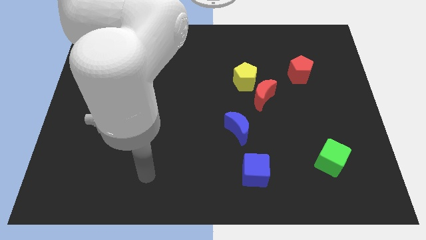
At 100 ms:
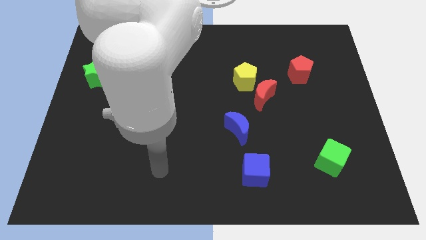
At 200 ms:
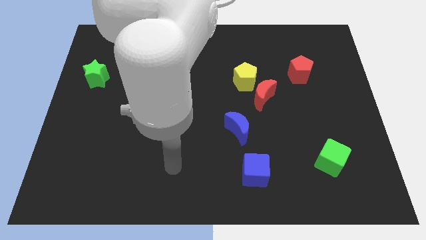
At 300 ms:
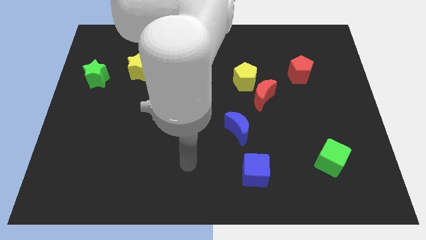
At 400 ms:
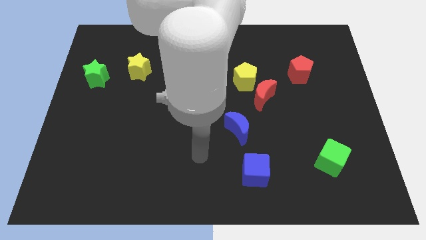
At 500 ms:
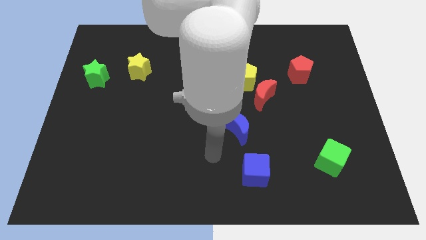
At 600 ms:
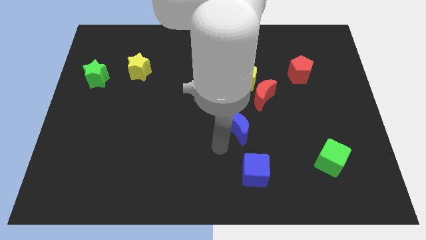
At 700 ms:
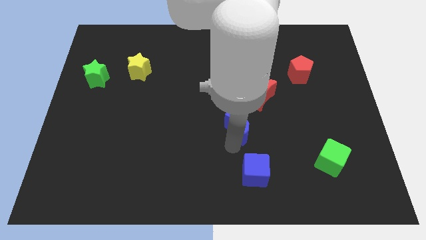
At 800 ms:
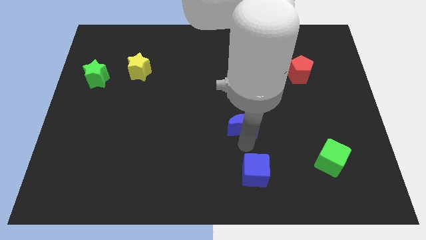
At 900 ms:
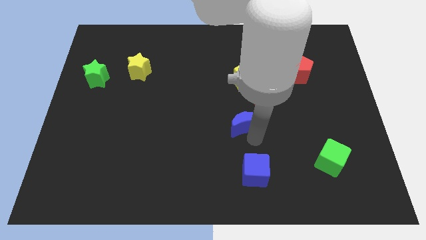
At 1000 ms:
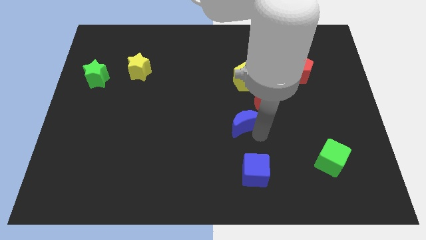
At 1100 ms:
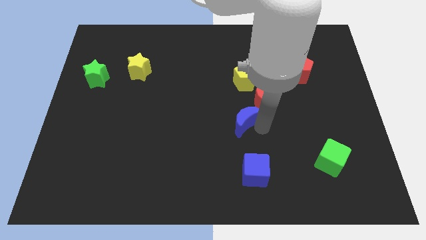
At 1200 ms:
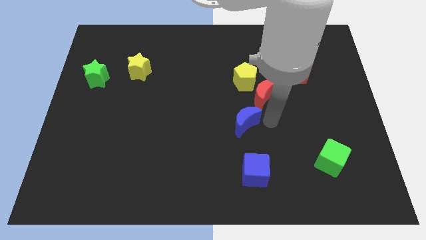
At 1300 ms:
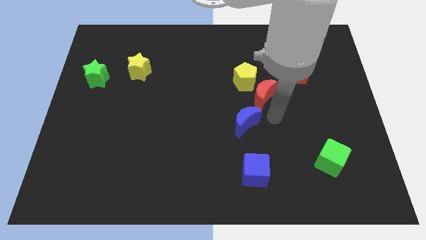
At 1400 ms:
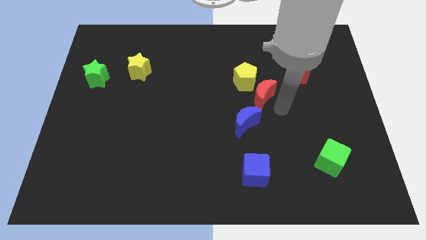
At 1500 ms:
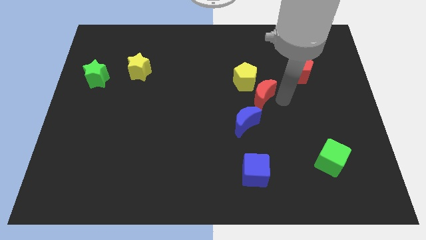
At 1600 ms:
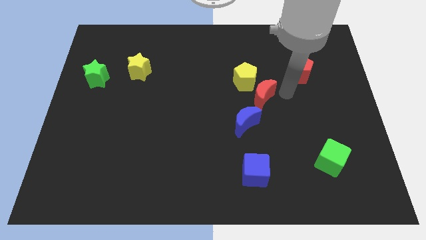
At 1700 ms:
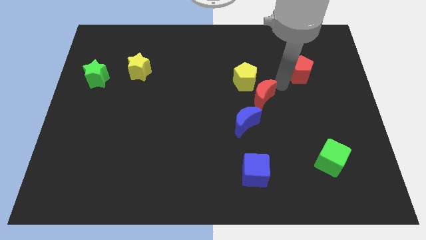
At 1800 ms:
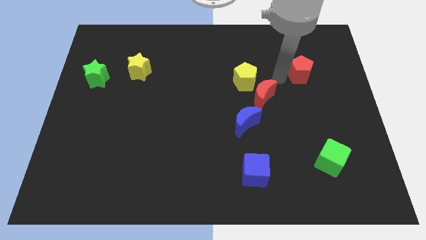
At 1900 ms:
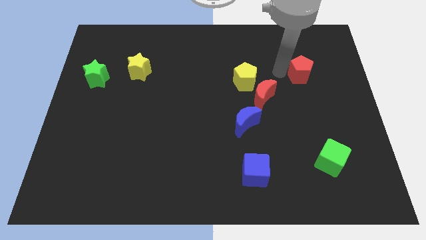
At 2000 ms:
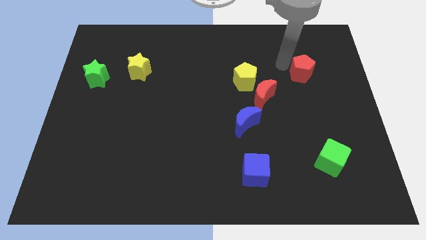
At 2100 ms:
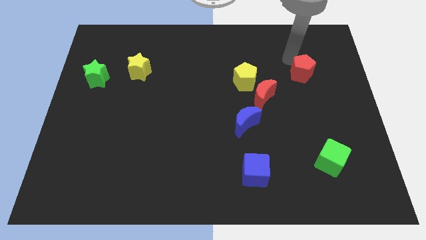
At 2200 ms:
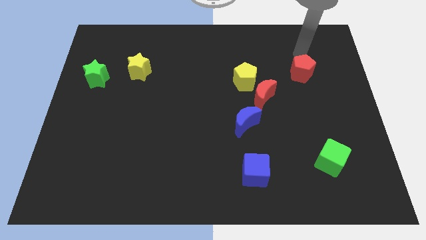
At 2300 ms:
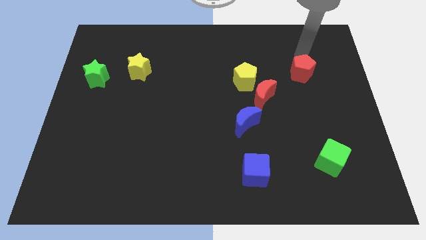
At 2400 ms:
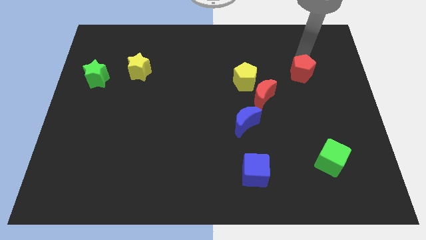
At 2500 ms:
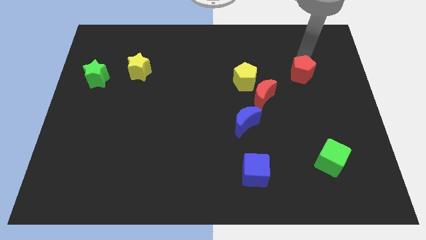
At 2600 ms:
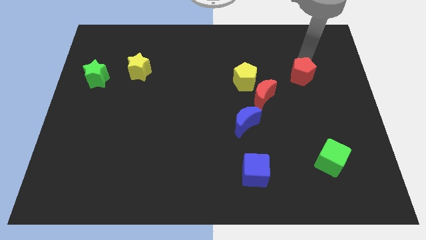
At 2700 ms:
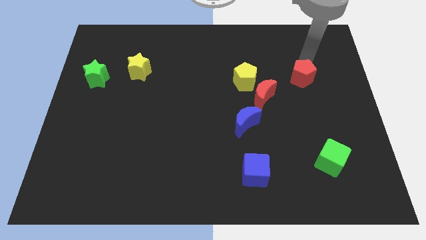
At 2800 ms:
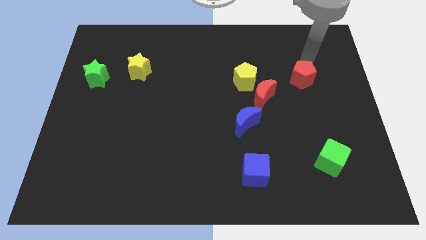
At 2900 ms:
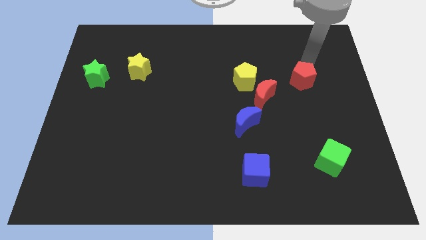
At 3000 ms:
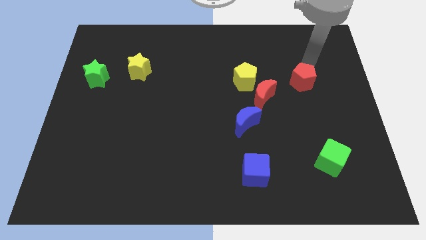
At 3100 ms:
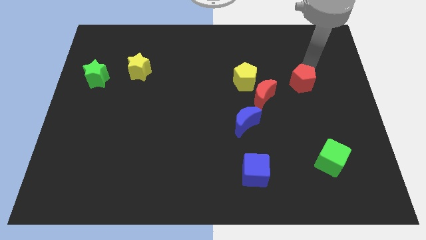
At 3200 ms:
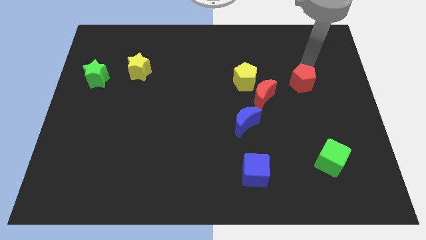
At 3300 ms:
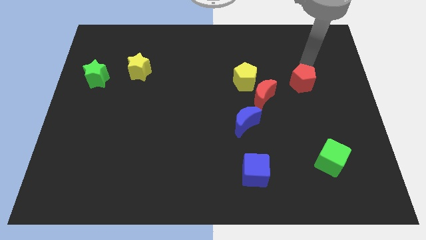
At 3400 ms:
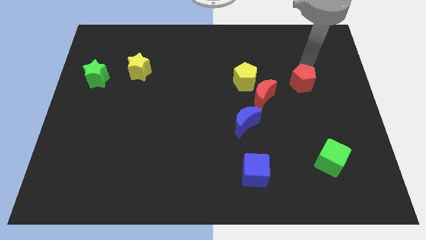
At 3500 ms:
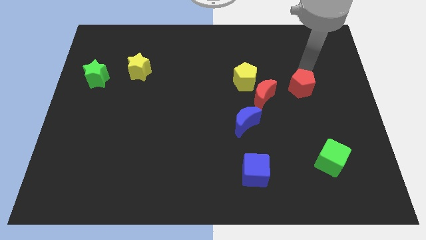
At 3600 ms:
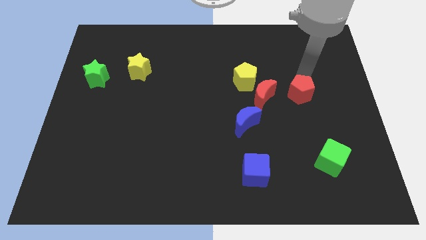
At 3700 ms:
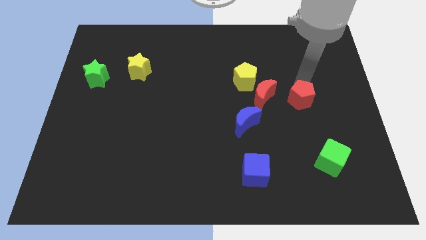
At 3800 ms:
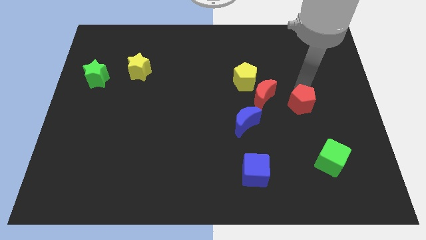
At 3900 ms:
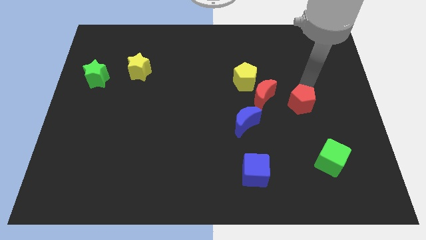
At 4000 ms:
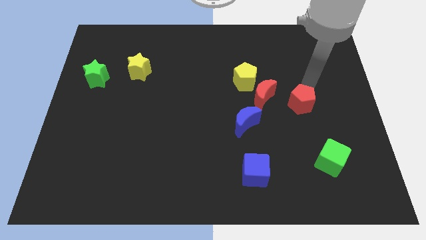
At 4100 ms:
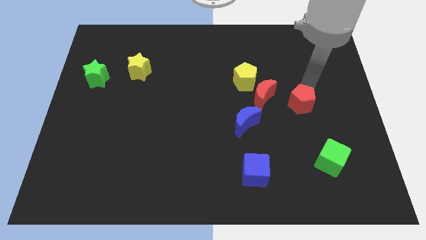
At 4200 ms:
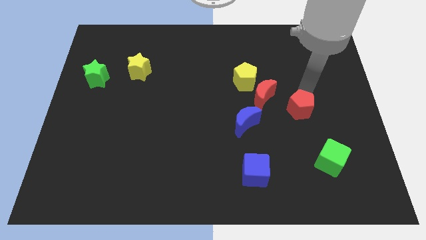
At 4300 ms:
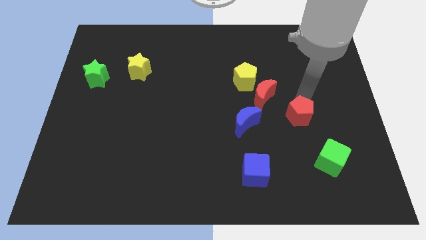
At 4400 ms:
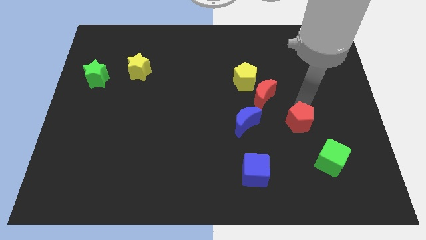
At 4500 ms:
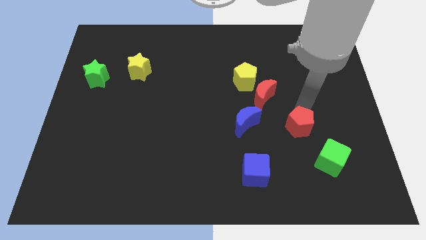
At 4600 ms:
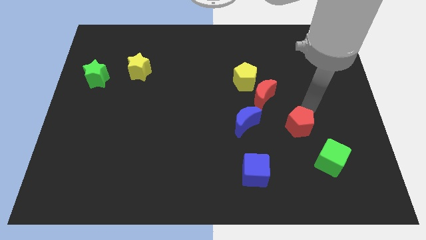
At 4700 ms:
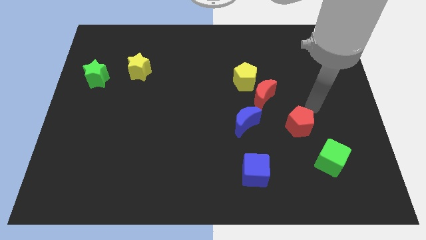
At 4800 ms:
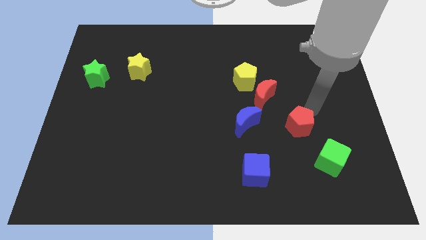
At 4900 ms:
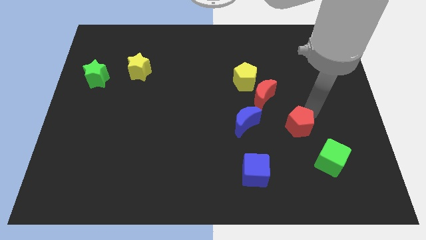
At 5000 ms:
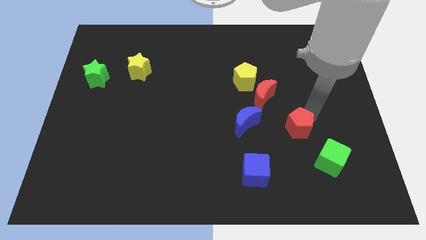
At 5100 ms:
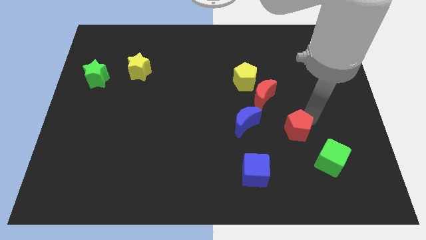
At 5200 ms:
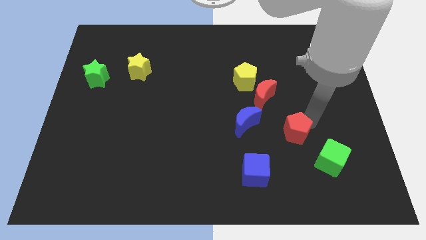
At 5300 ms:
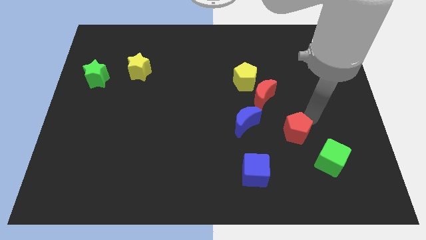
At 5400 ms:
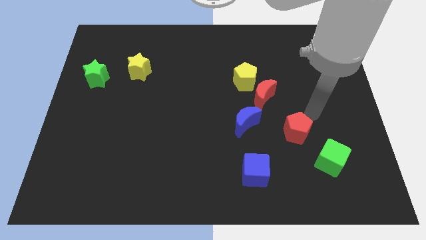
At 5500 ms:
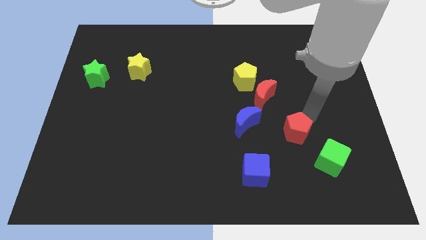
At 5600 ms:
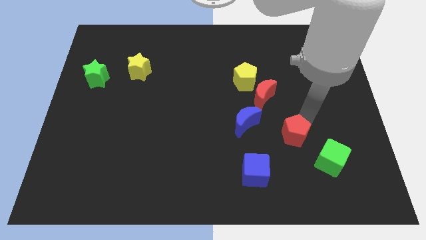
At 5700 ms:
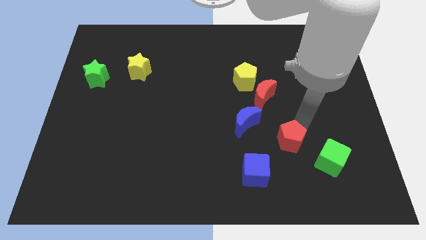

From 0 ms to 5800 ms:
push the red pentagon diagonally up and to the right of the blue cube

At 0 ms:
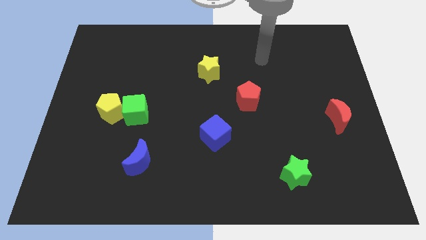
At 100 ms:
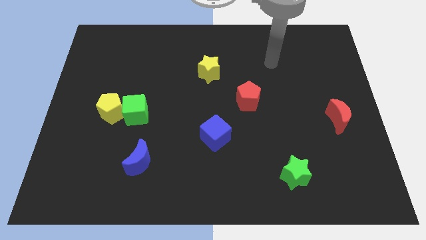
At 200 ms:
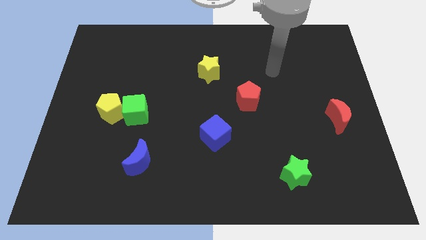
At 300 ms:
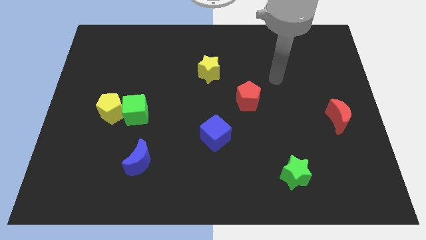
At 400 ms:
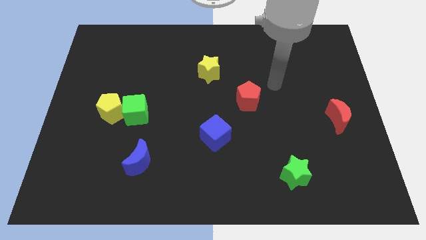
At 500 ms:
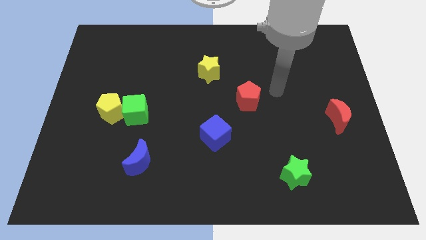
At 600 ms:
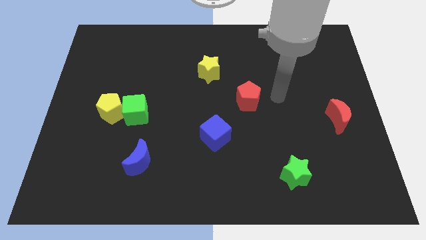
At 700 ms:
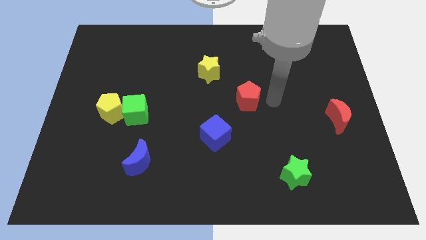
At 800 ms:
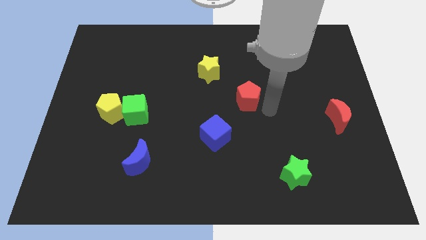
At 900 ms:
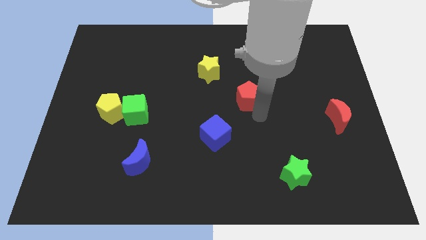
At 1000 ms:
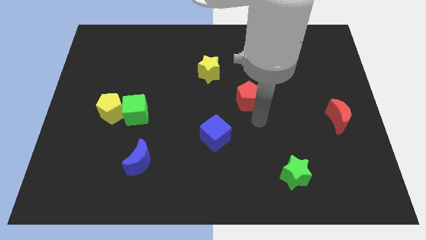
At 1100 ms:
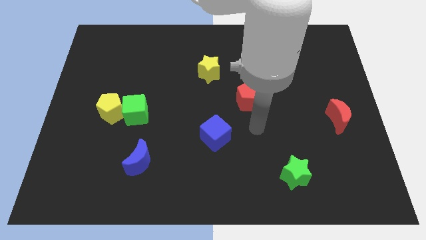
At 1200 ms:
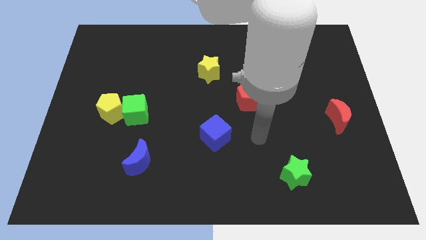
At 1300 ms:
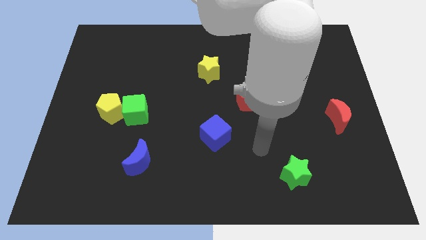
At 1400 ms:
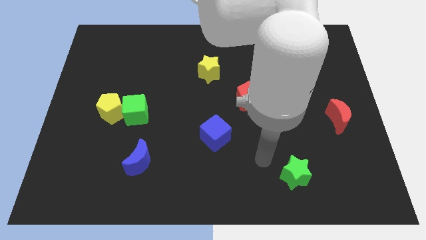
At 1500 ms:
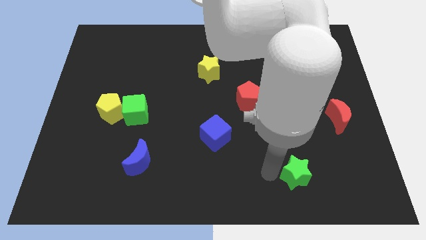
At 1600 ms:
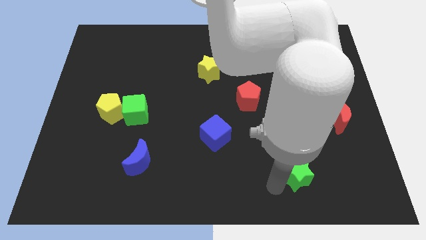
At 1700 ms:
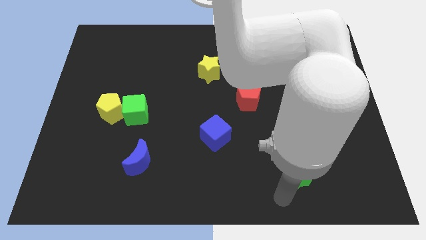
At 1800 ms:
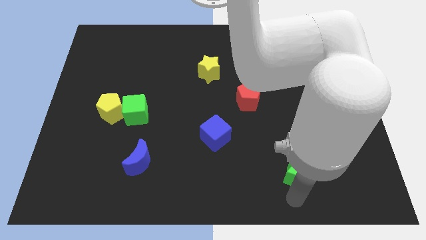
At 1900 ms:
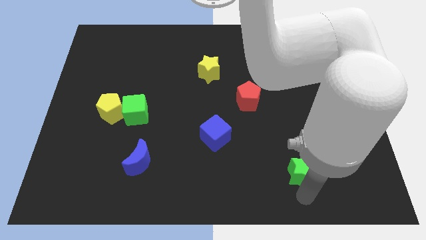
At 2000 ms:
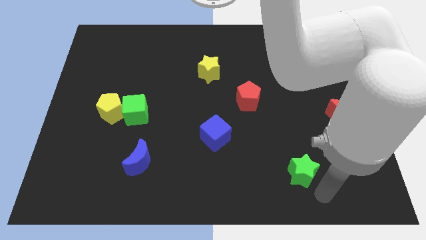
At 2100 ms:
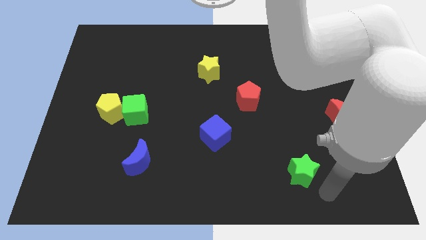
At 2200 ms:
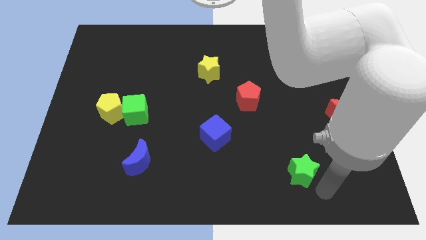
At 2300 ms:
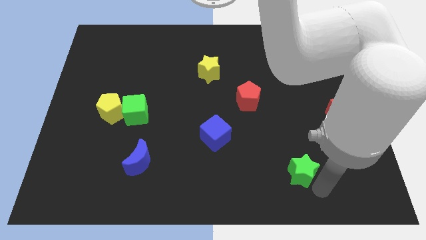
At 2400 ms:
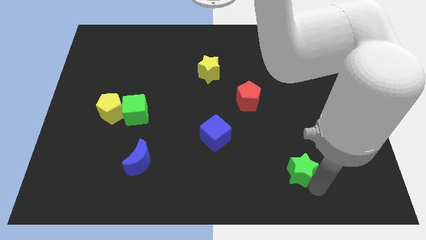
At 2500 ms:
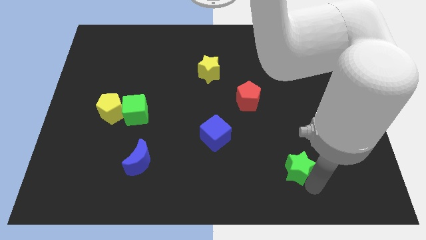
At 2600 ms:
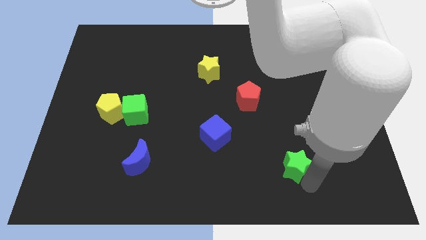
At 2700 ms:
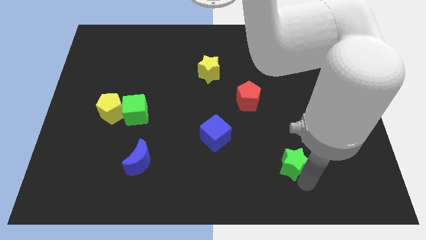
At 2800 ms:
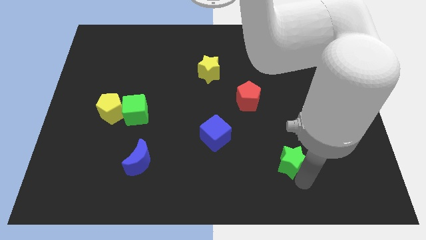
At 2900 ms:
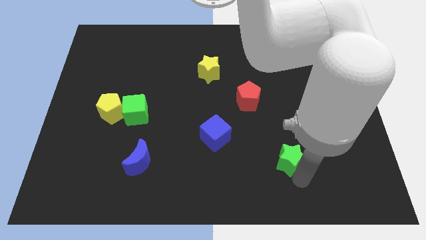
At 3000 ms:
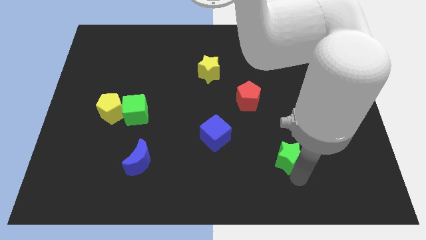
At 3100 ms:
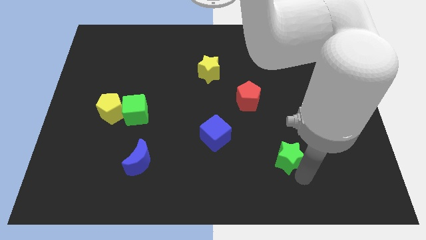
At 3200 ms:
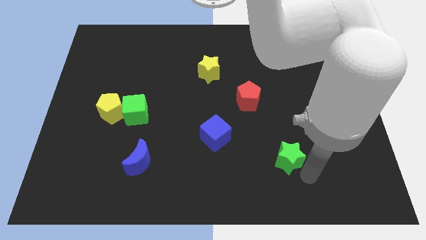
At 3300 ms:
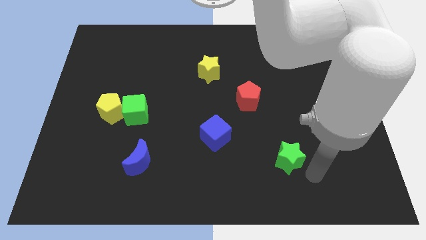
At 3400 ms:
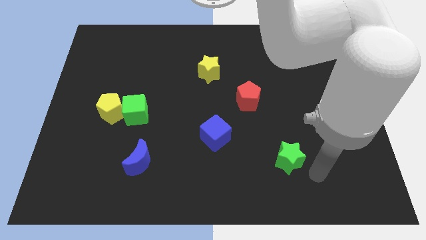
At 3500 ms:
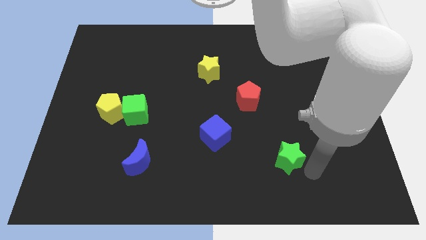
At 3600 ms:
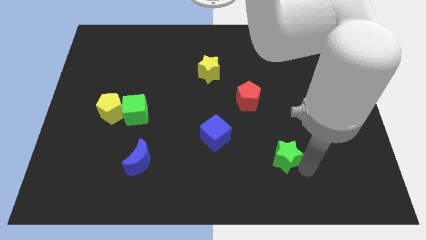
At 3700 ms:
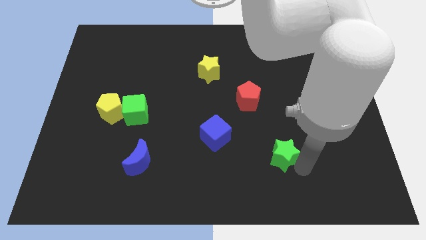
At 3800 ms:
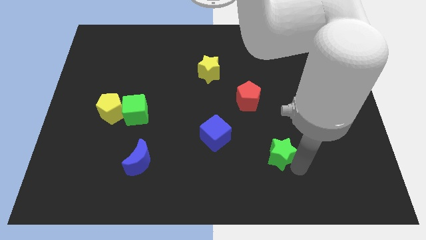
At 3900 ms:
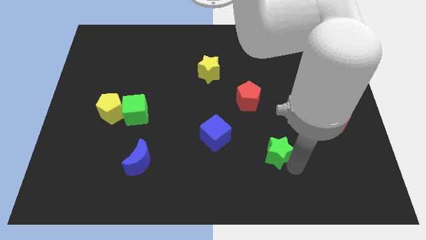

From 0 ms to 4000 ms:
push the green star just right of the blue cube
